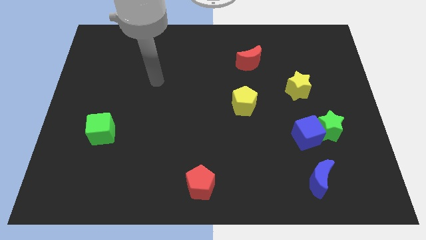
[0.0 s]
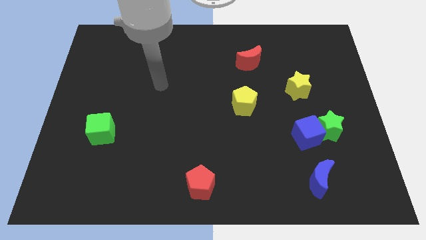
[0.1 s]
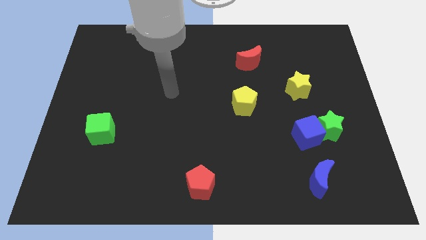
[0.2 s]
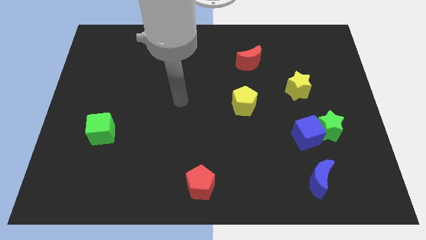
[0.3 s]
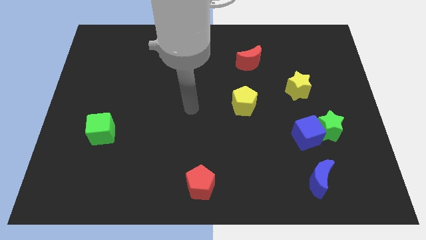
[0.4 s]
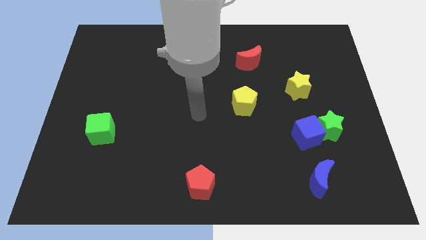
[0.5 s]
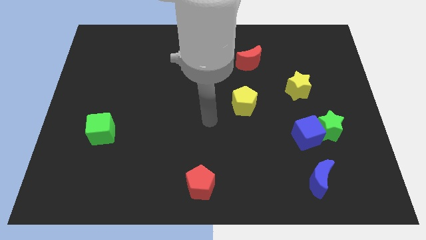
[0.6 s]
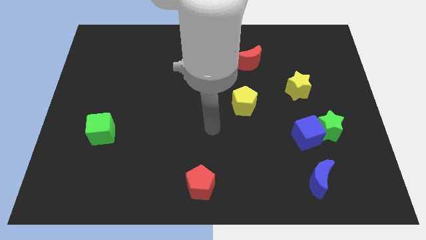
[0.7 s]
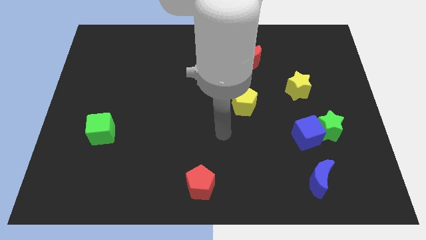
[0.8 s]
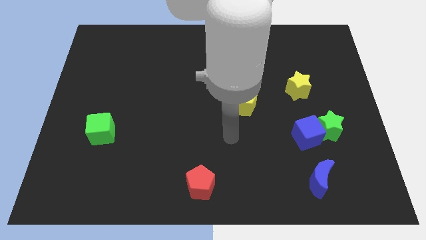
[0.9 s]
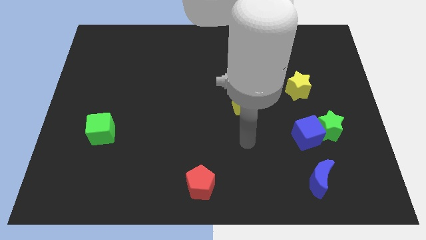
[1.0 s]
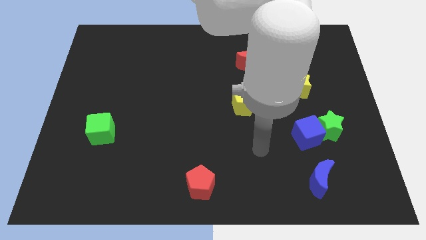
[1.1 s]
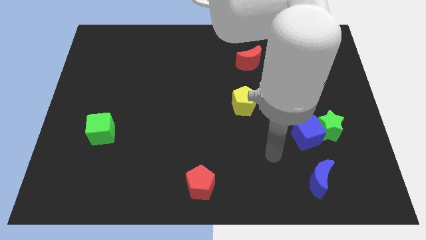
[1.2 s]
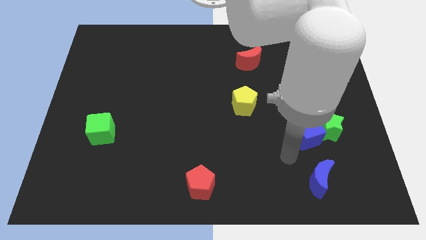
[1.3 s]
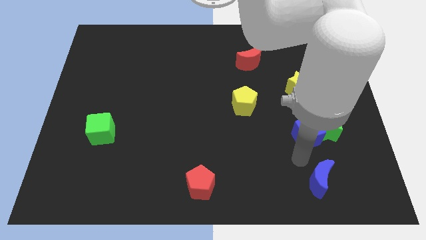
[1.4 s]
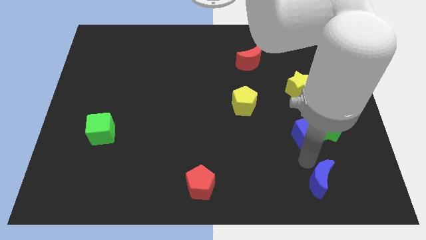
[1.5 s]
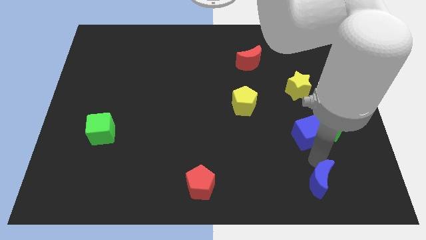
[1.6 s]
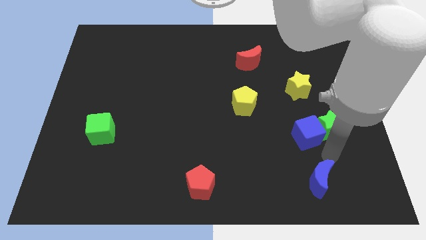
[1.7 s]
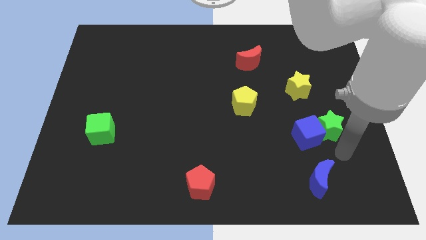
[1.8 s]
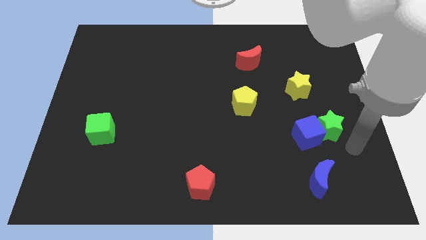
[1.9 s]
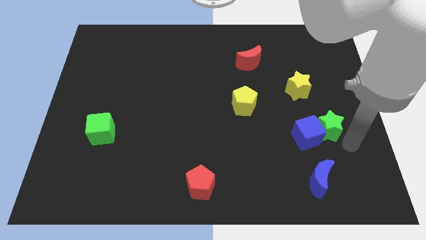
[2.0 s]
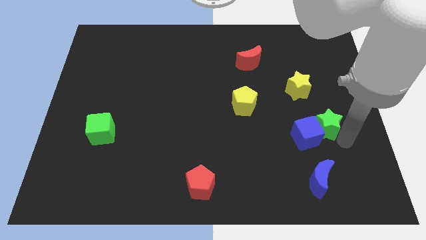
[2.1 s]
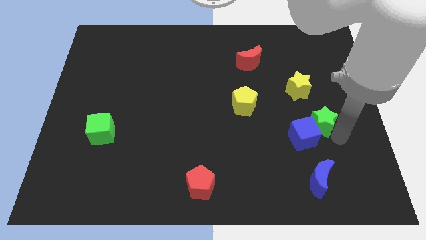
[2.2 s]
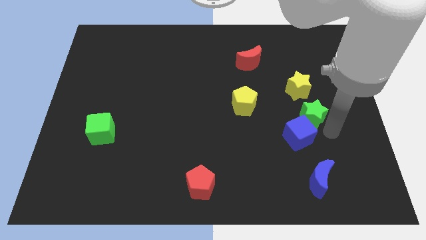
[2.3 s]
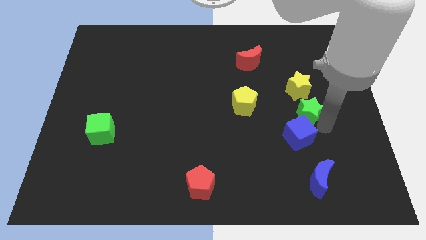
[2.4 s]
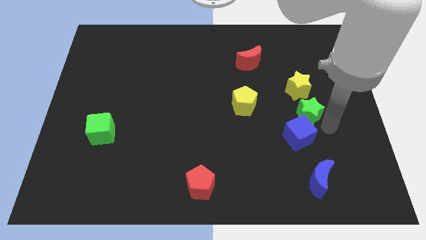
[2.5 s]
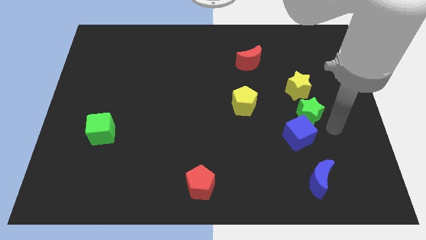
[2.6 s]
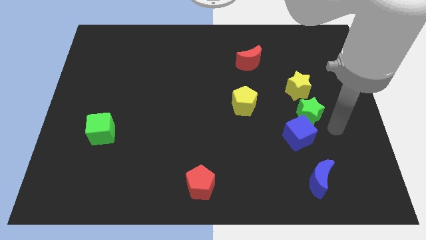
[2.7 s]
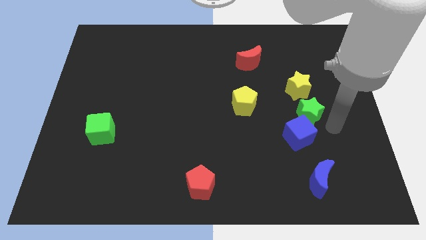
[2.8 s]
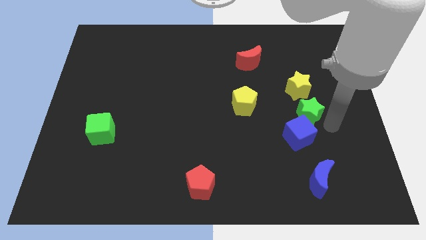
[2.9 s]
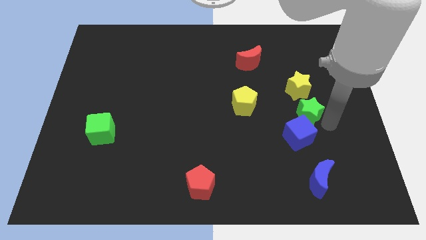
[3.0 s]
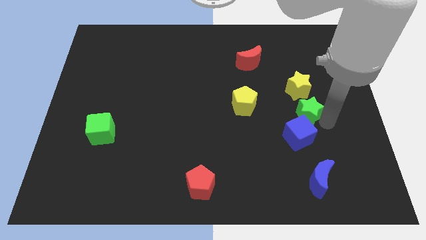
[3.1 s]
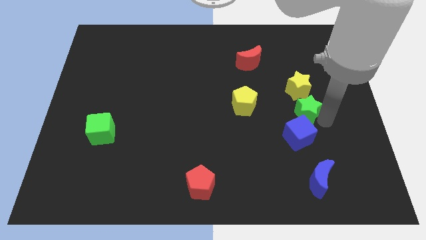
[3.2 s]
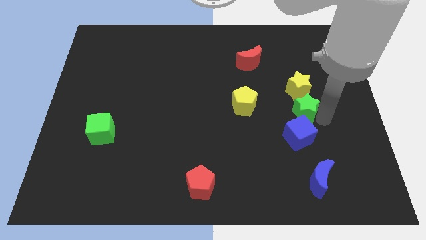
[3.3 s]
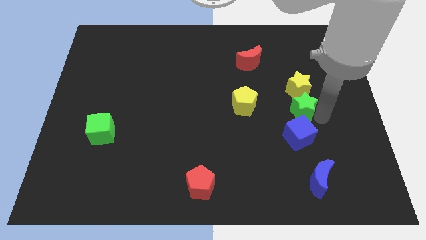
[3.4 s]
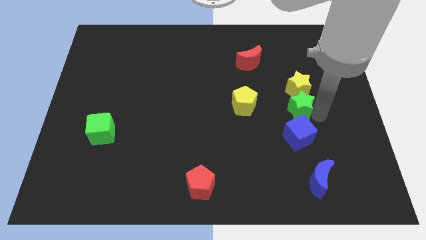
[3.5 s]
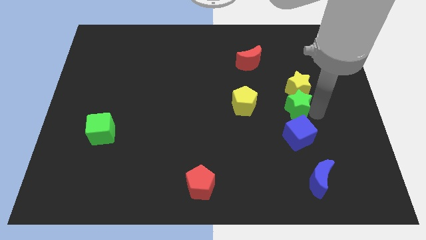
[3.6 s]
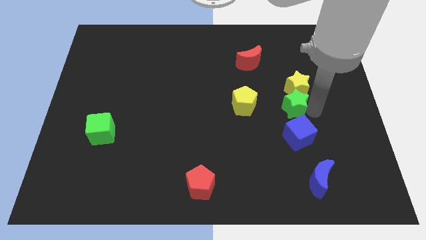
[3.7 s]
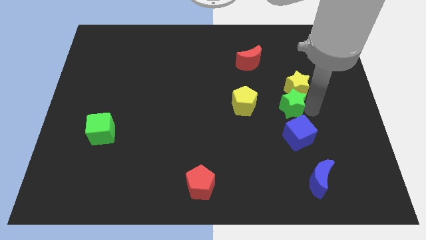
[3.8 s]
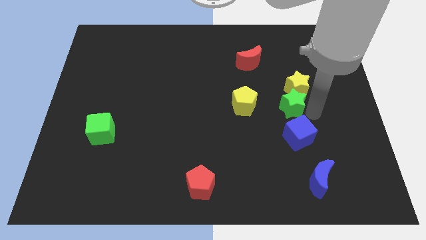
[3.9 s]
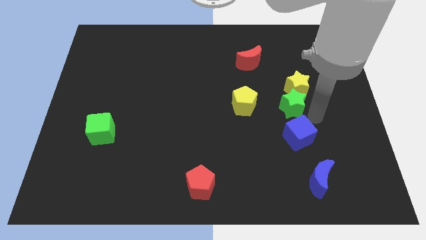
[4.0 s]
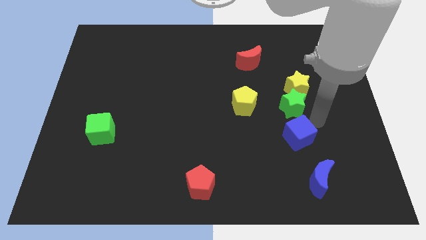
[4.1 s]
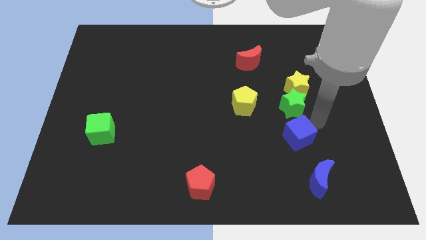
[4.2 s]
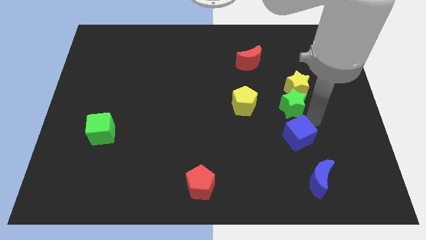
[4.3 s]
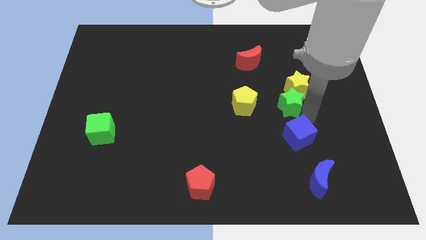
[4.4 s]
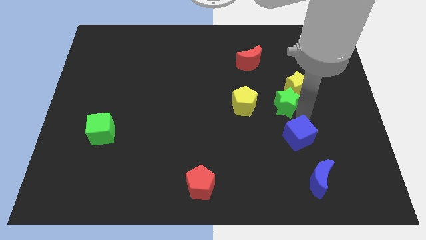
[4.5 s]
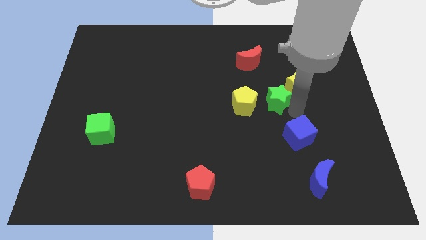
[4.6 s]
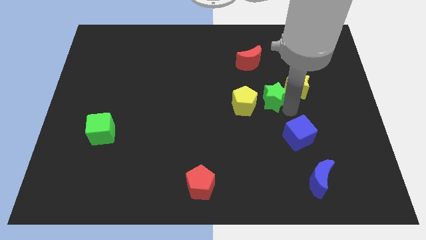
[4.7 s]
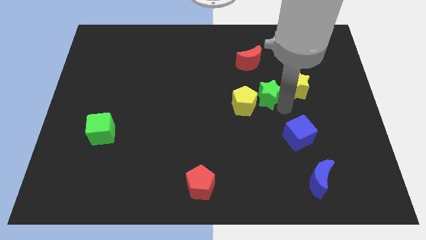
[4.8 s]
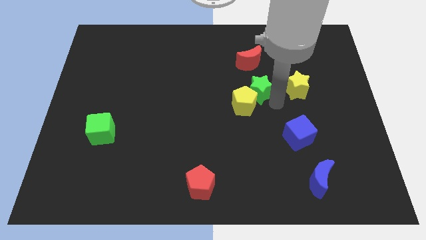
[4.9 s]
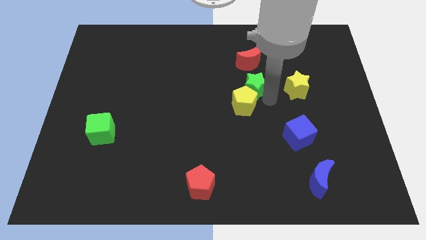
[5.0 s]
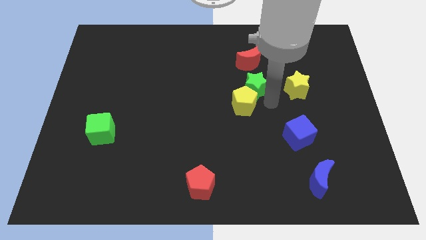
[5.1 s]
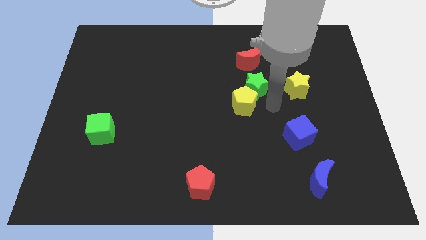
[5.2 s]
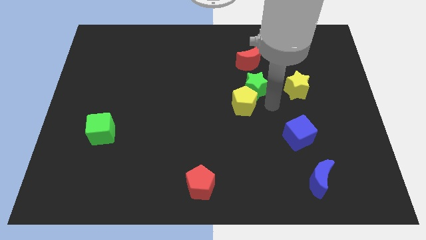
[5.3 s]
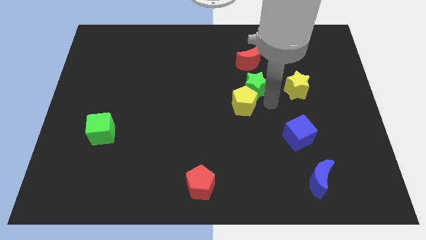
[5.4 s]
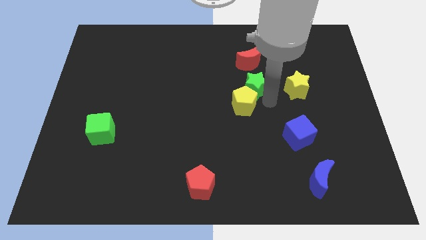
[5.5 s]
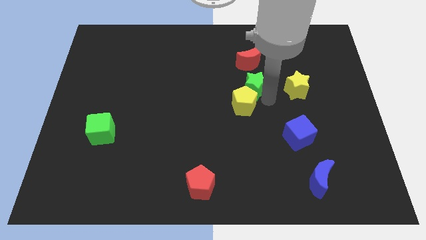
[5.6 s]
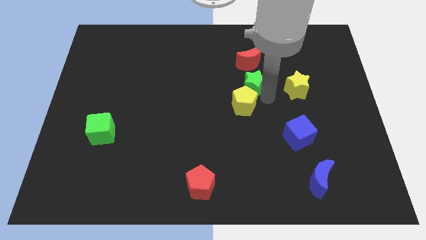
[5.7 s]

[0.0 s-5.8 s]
slide the green star diagonally up and left

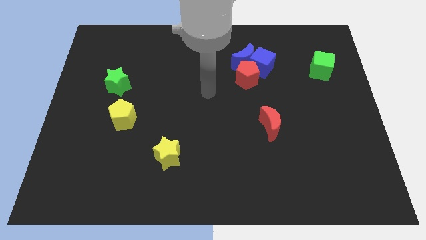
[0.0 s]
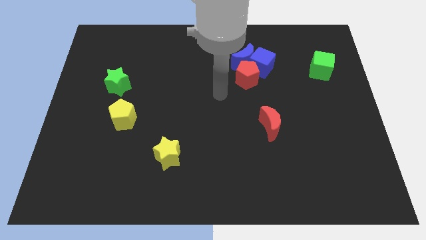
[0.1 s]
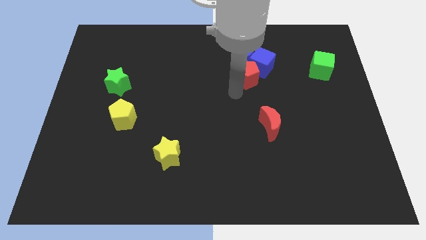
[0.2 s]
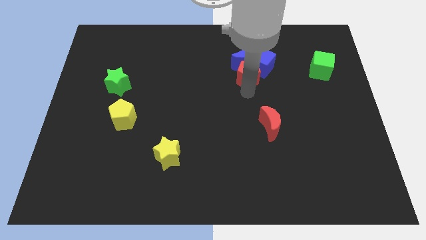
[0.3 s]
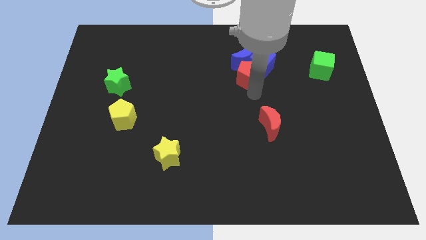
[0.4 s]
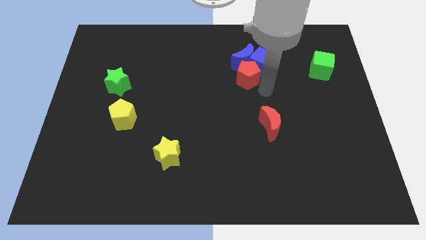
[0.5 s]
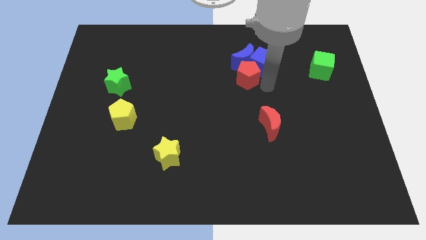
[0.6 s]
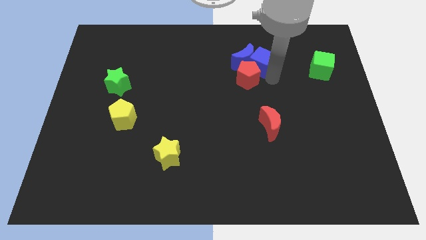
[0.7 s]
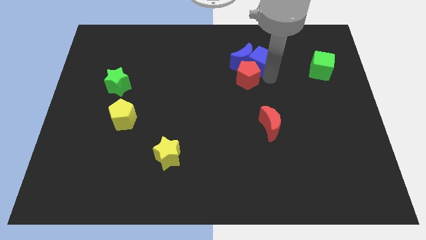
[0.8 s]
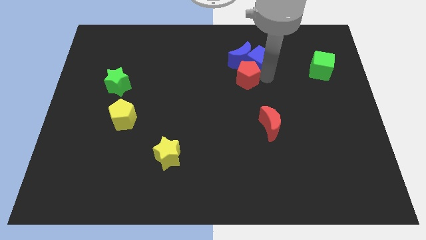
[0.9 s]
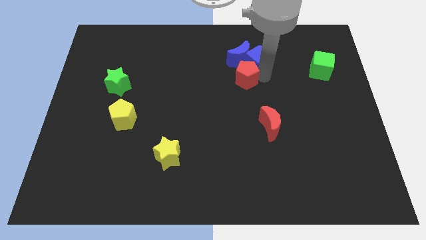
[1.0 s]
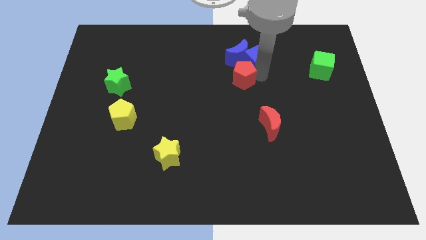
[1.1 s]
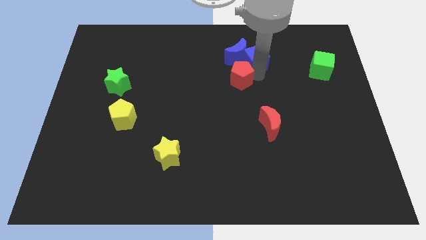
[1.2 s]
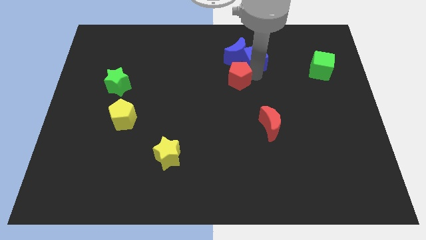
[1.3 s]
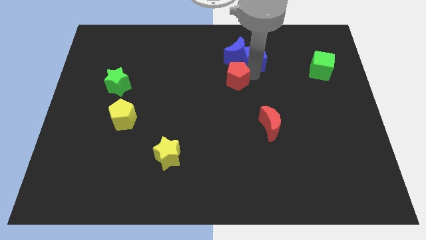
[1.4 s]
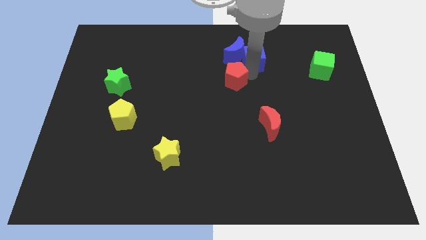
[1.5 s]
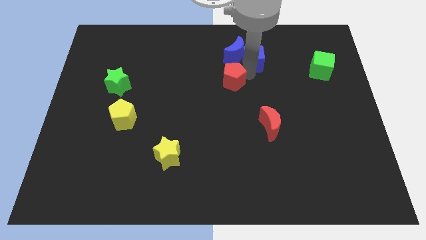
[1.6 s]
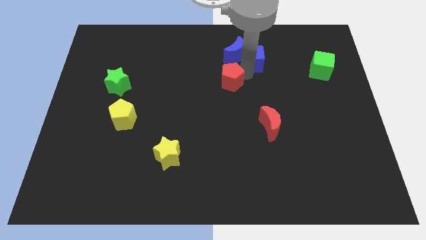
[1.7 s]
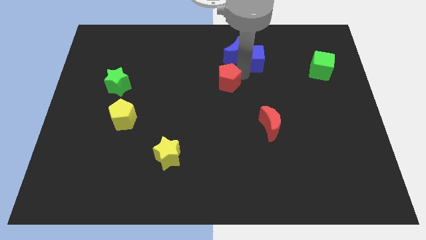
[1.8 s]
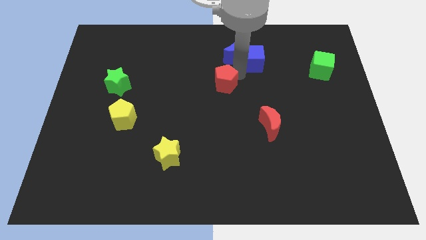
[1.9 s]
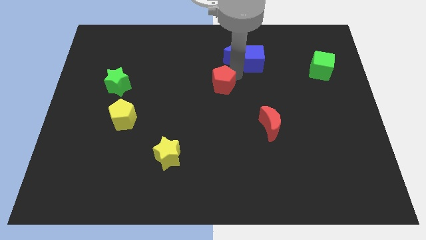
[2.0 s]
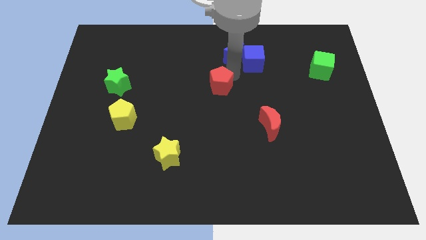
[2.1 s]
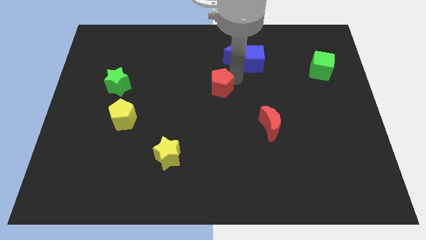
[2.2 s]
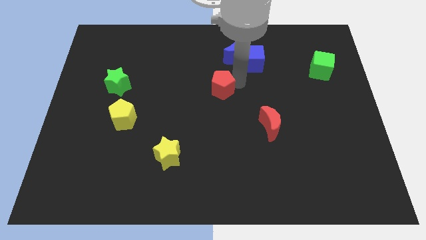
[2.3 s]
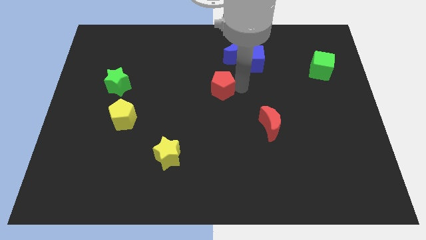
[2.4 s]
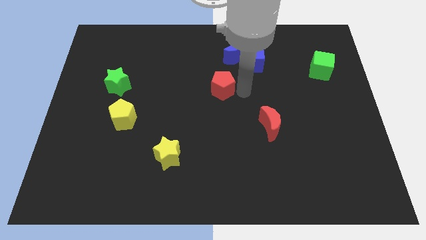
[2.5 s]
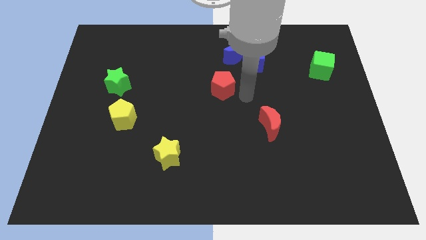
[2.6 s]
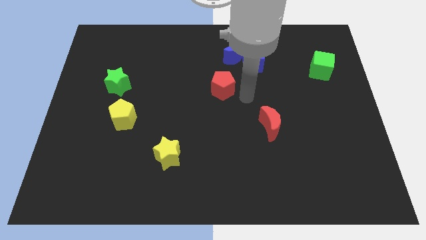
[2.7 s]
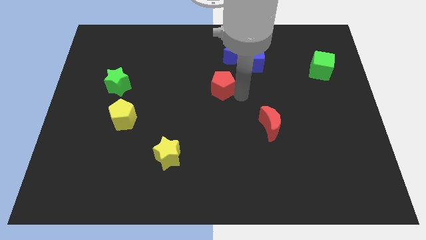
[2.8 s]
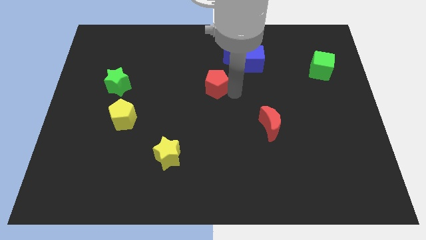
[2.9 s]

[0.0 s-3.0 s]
slide the red pentagon a little to the left
